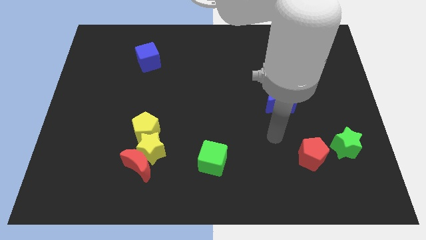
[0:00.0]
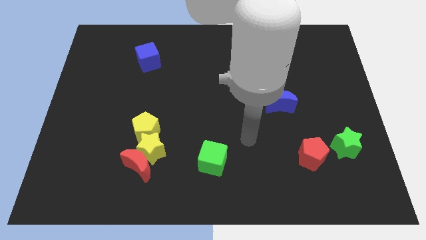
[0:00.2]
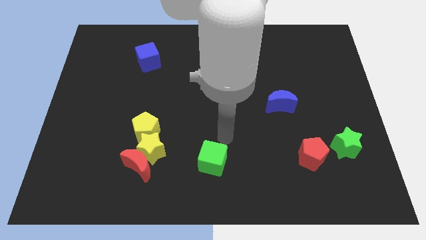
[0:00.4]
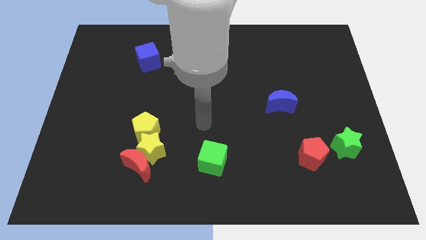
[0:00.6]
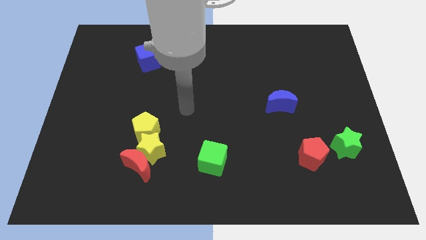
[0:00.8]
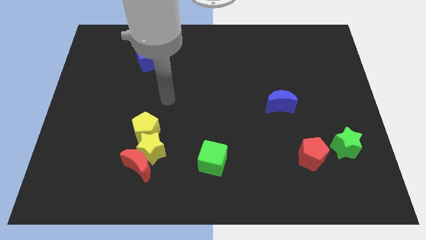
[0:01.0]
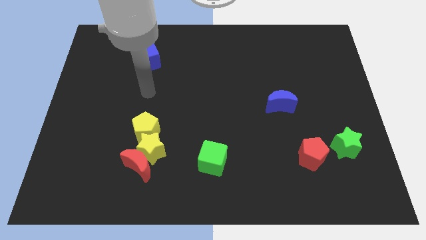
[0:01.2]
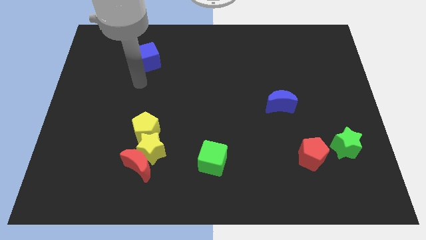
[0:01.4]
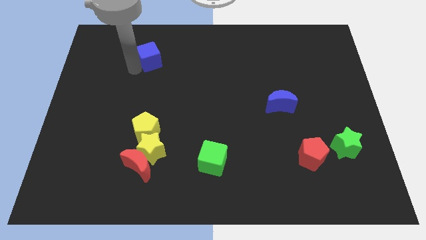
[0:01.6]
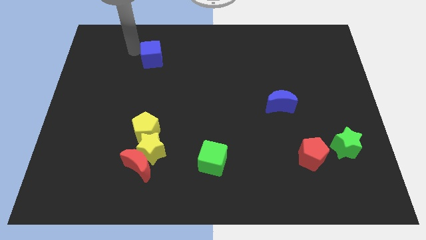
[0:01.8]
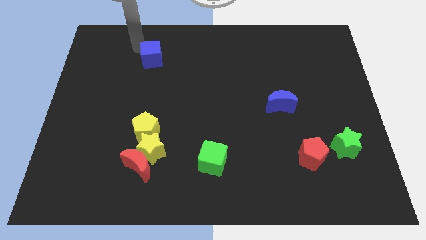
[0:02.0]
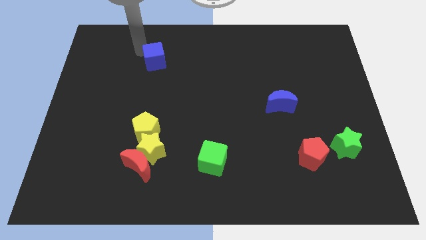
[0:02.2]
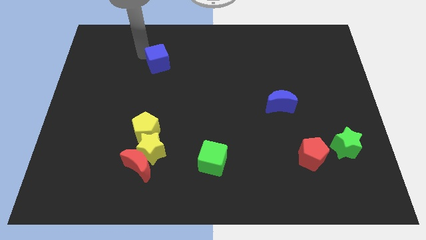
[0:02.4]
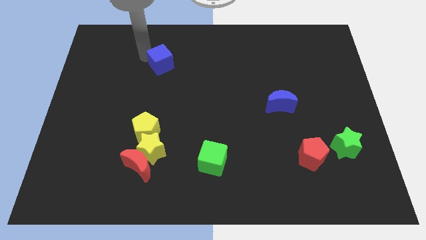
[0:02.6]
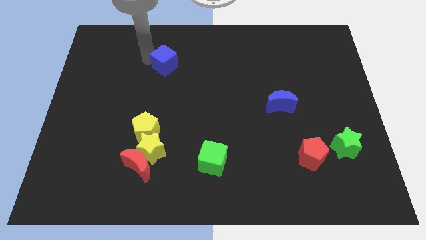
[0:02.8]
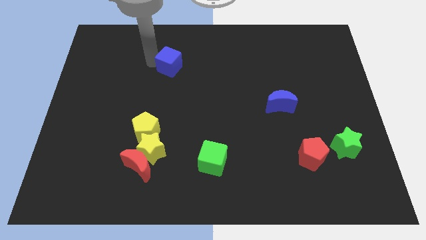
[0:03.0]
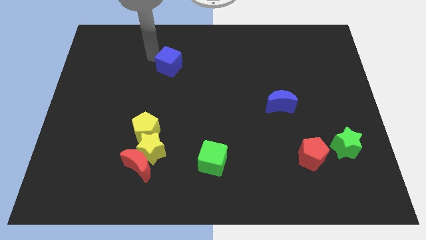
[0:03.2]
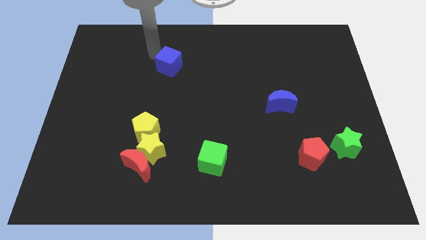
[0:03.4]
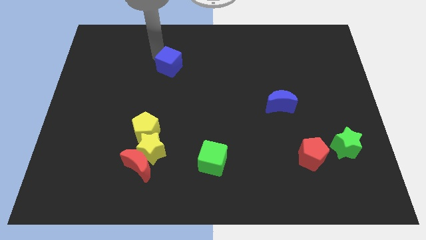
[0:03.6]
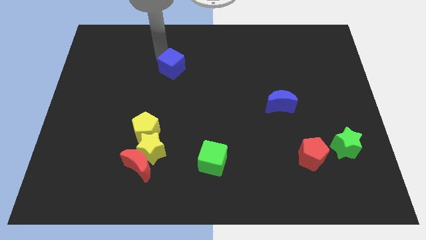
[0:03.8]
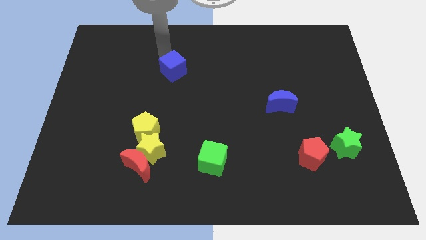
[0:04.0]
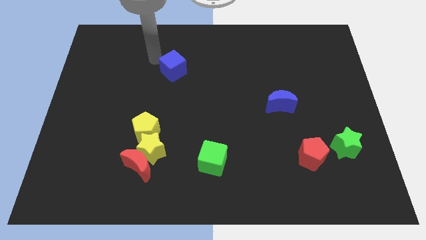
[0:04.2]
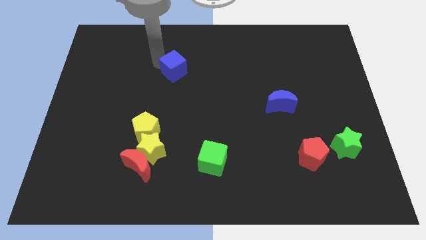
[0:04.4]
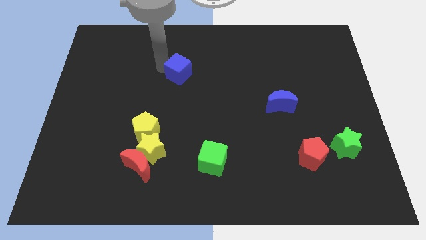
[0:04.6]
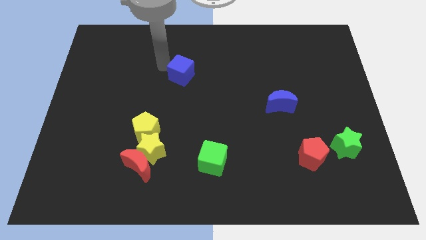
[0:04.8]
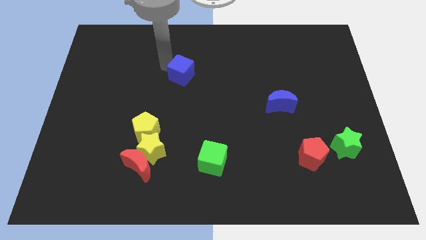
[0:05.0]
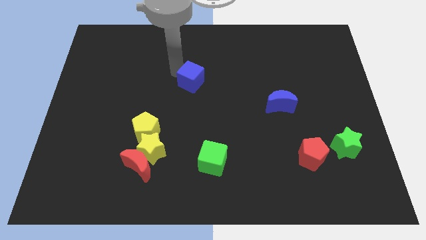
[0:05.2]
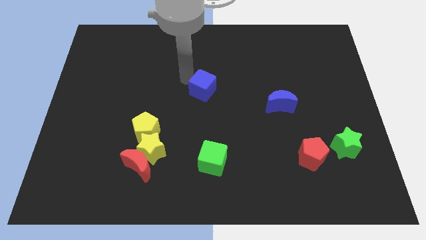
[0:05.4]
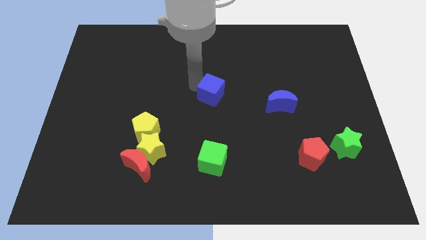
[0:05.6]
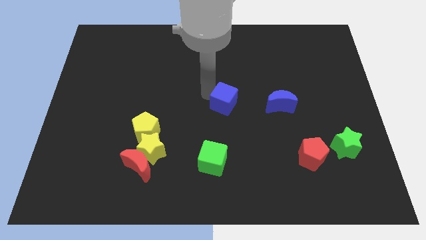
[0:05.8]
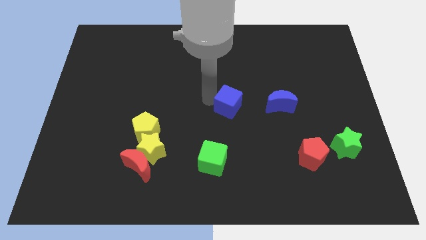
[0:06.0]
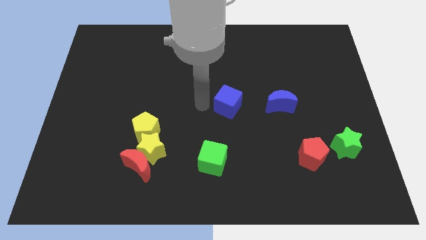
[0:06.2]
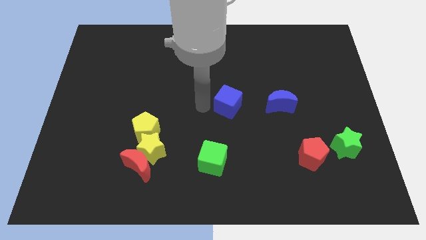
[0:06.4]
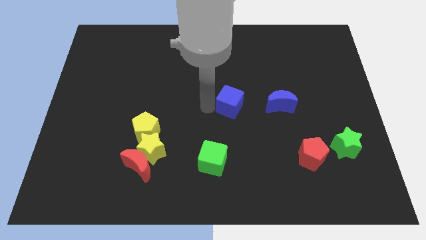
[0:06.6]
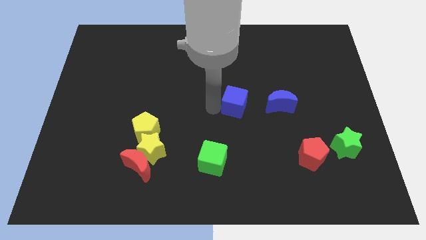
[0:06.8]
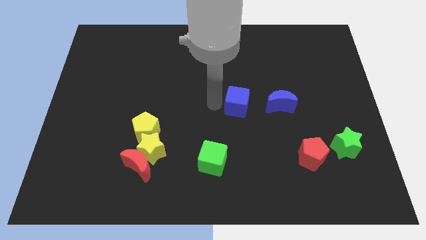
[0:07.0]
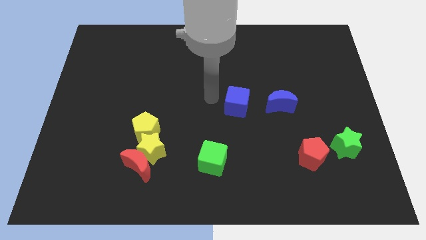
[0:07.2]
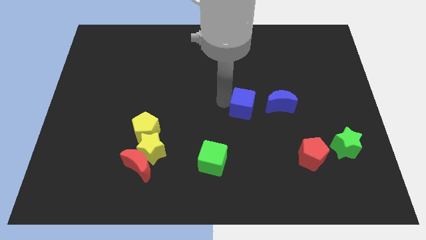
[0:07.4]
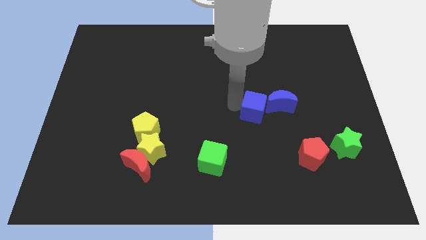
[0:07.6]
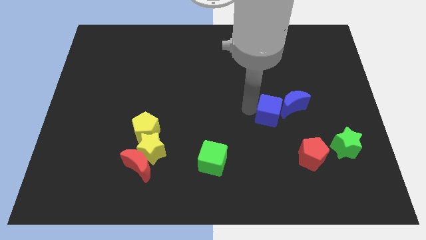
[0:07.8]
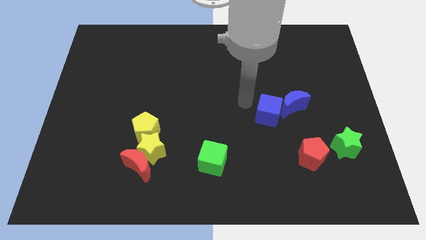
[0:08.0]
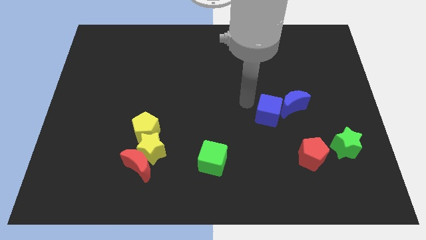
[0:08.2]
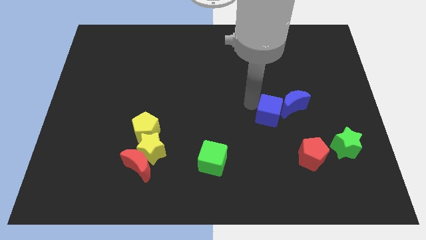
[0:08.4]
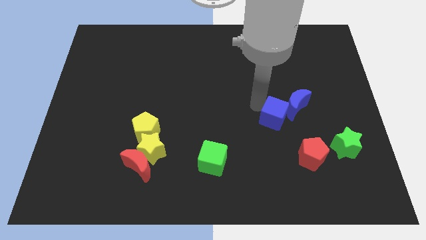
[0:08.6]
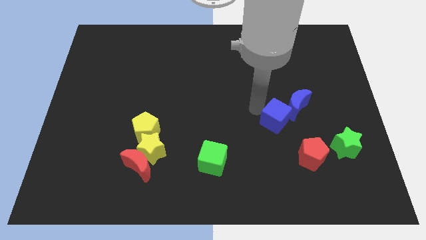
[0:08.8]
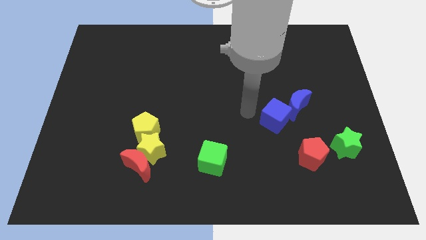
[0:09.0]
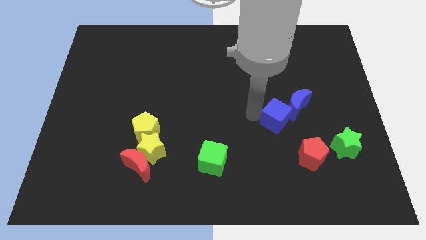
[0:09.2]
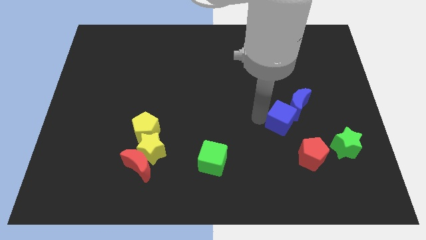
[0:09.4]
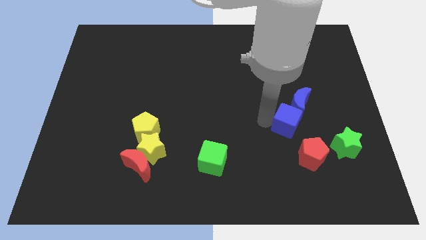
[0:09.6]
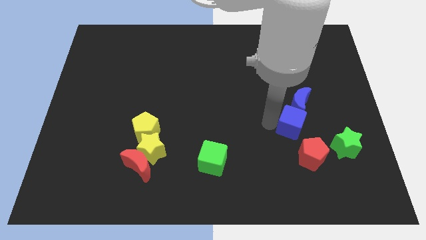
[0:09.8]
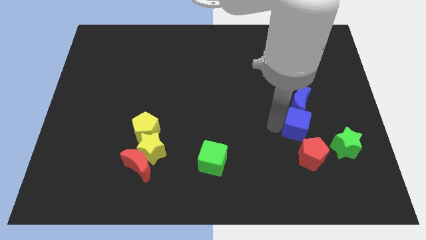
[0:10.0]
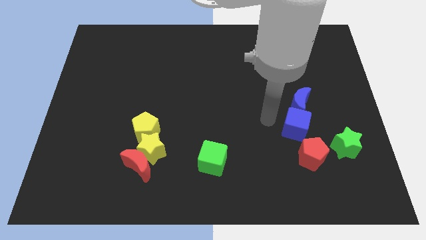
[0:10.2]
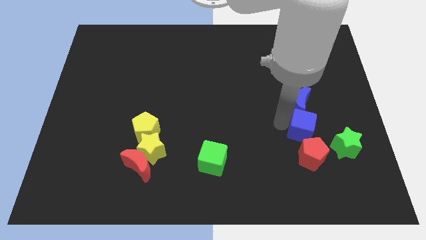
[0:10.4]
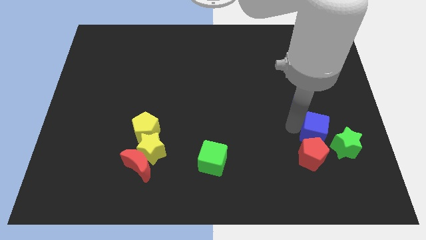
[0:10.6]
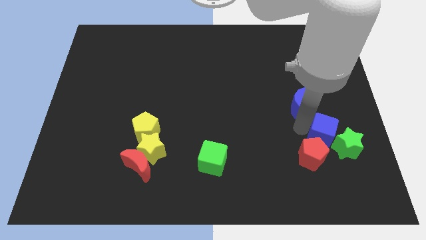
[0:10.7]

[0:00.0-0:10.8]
move the blue cube towards the green star
